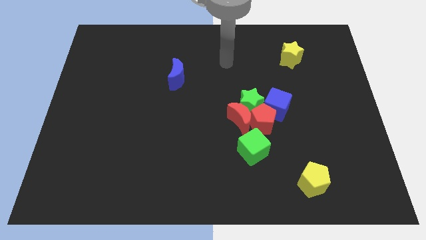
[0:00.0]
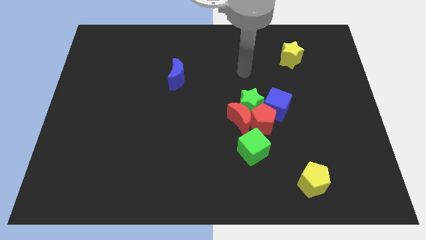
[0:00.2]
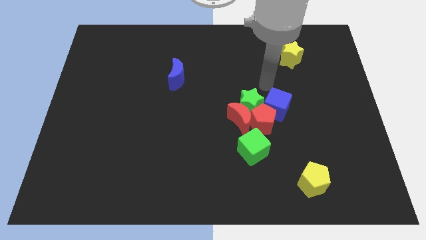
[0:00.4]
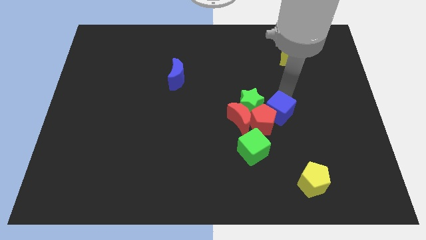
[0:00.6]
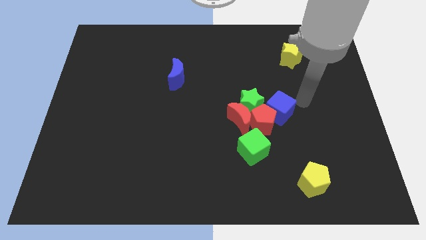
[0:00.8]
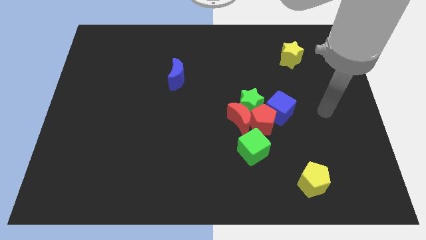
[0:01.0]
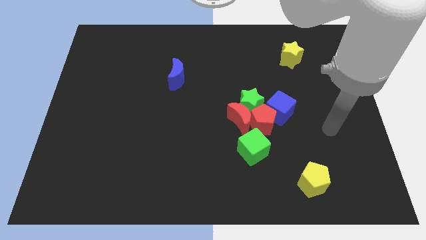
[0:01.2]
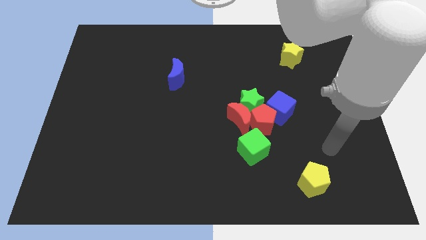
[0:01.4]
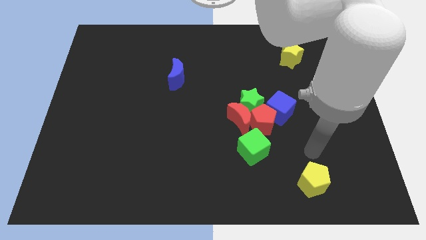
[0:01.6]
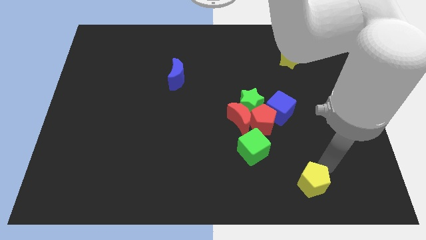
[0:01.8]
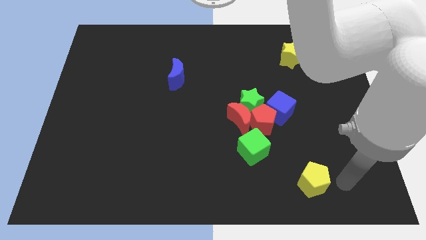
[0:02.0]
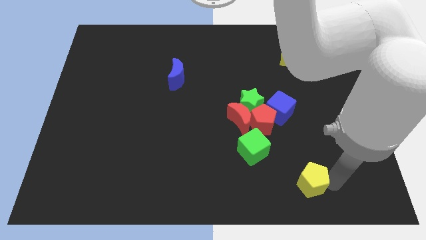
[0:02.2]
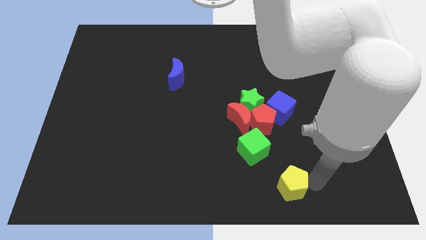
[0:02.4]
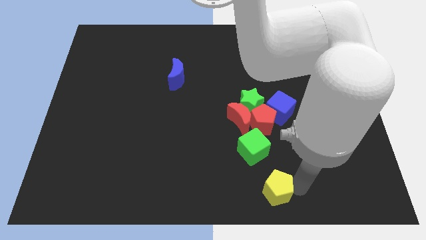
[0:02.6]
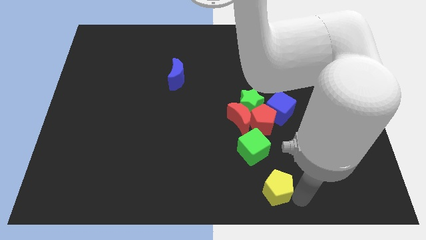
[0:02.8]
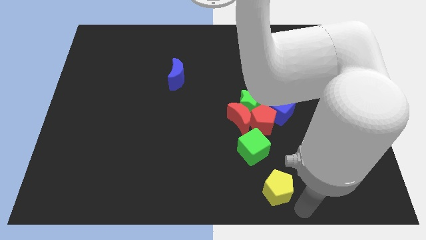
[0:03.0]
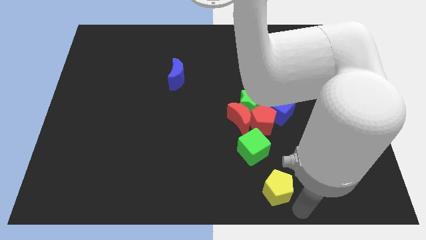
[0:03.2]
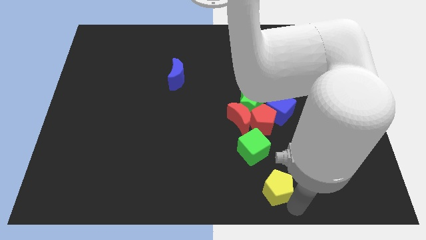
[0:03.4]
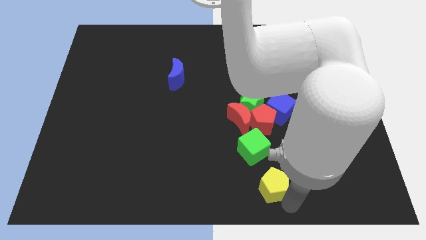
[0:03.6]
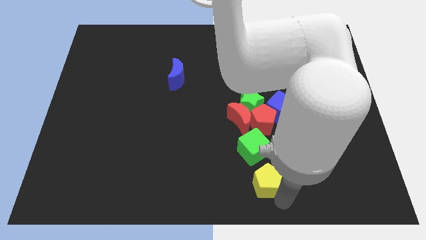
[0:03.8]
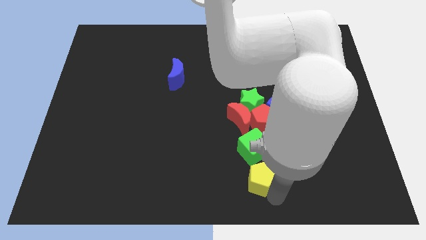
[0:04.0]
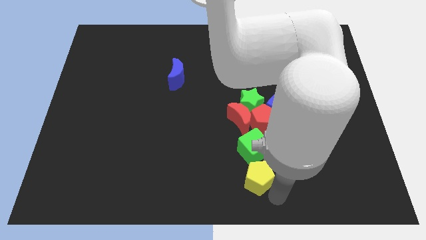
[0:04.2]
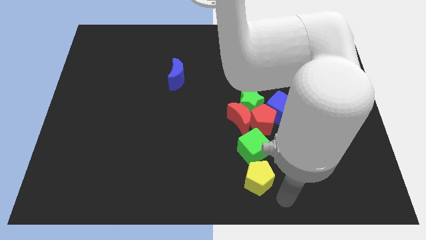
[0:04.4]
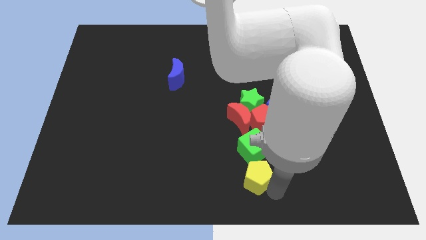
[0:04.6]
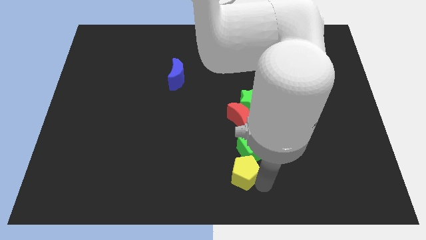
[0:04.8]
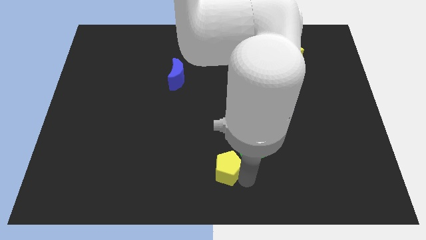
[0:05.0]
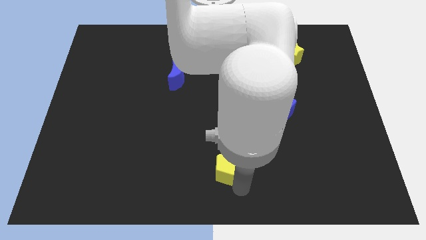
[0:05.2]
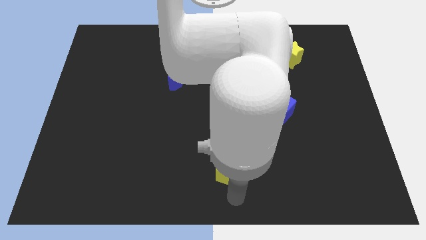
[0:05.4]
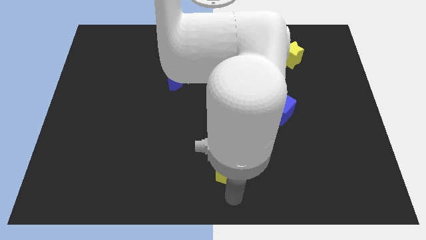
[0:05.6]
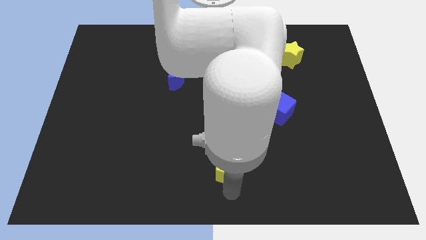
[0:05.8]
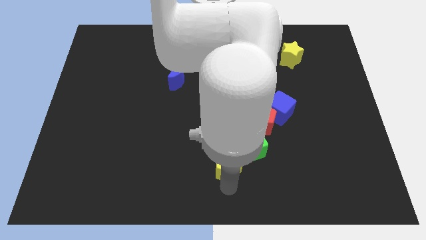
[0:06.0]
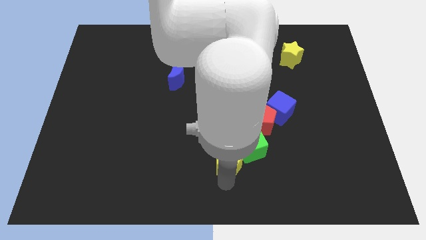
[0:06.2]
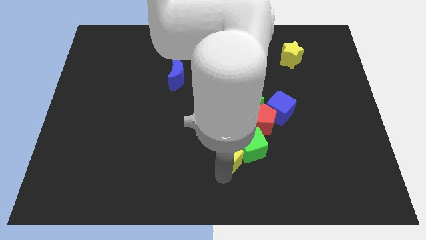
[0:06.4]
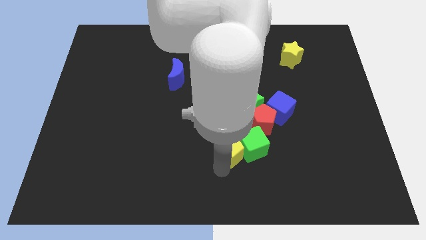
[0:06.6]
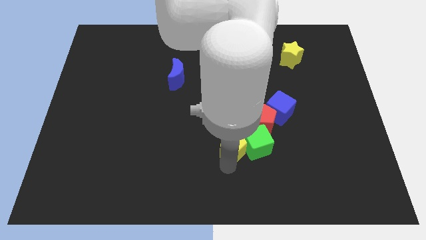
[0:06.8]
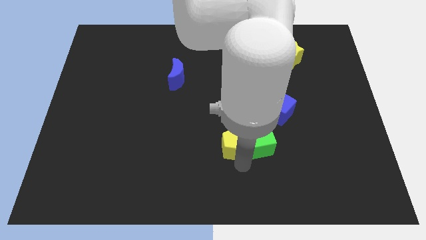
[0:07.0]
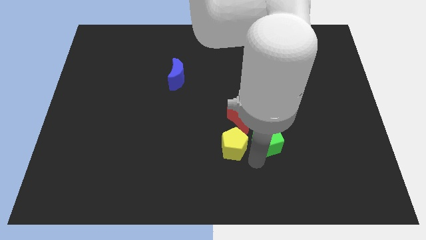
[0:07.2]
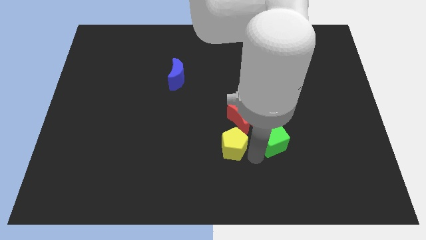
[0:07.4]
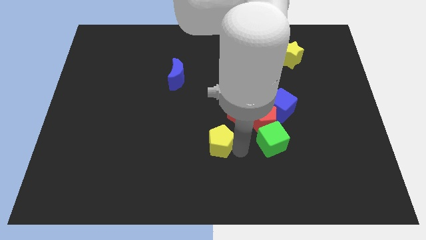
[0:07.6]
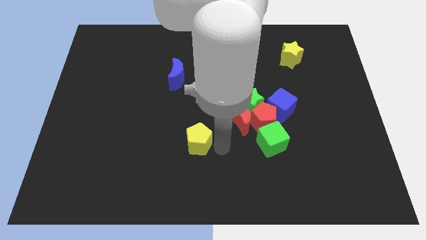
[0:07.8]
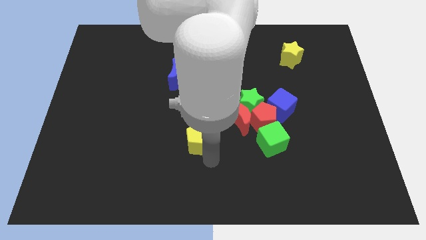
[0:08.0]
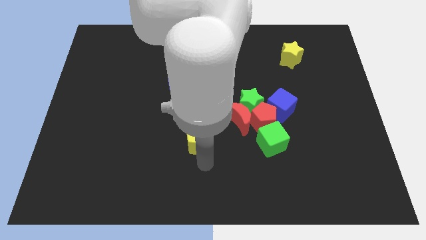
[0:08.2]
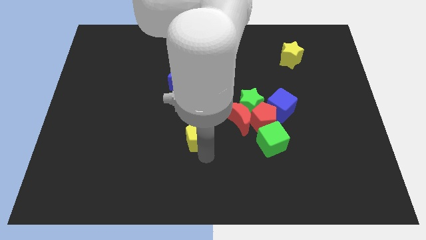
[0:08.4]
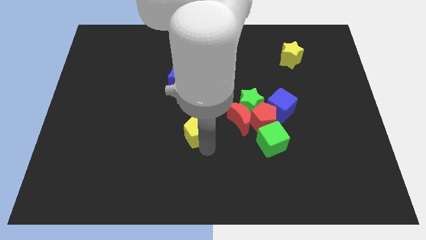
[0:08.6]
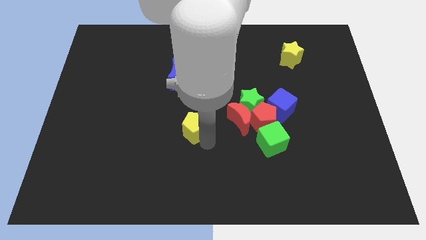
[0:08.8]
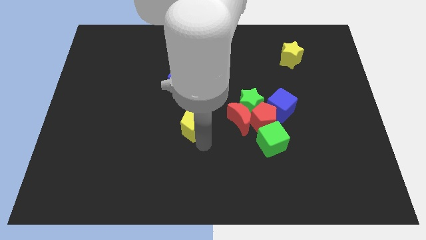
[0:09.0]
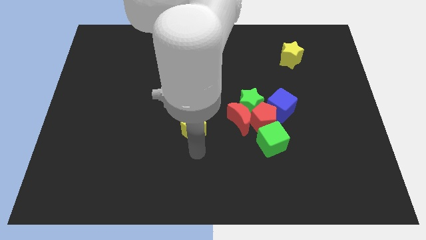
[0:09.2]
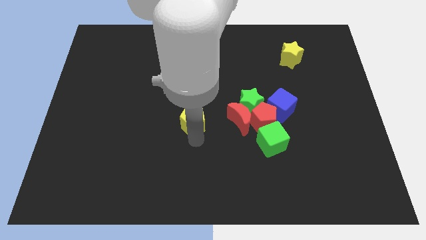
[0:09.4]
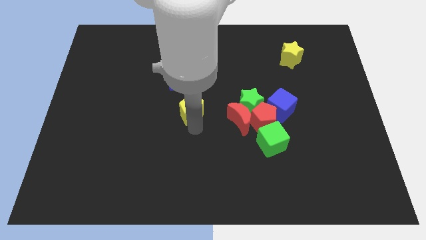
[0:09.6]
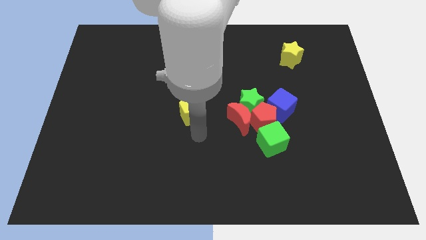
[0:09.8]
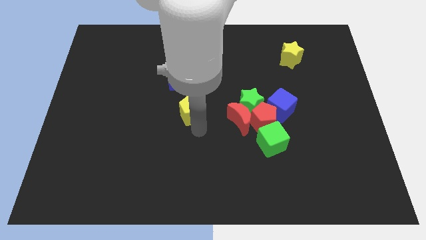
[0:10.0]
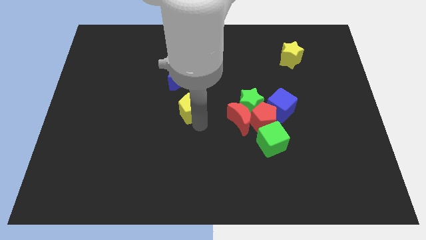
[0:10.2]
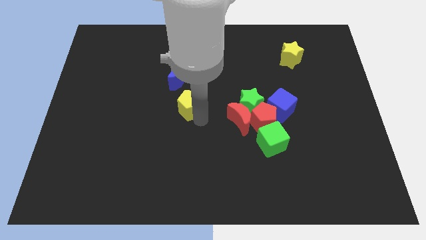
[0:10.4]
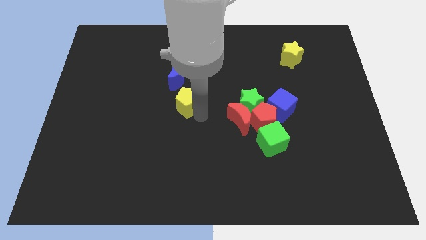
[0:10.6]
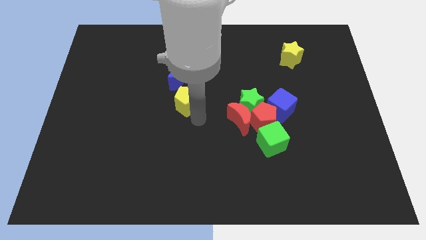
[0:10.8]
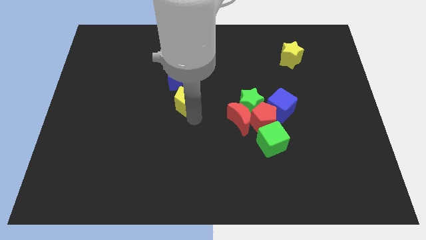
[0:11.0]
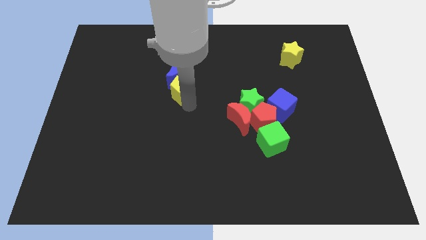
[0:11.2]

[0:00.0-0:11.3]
put the yellow pentagon next to the blue moon

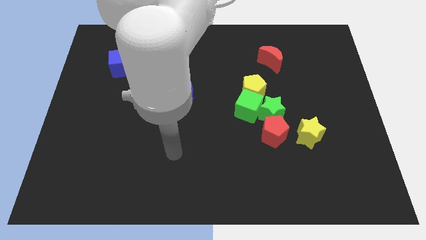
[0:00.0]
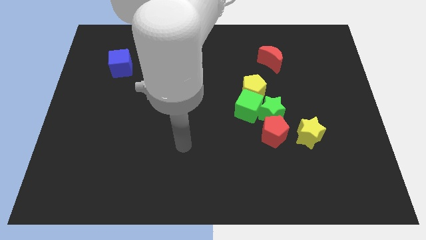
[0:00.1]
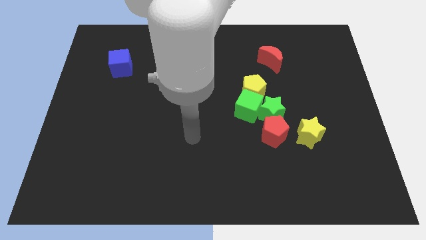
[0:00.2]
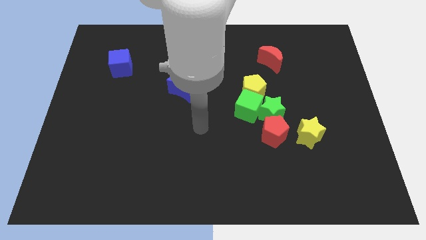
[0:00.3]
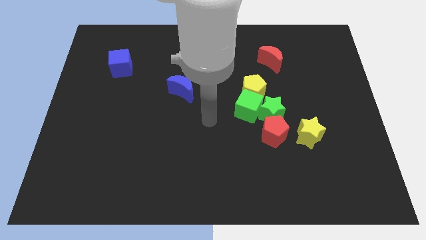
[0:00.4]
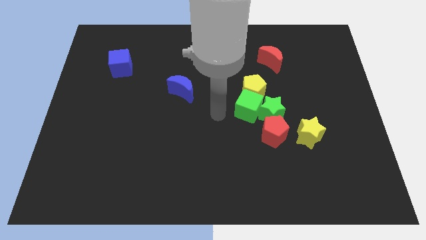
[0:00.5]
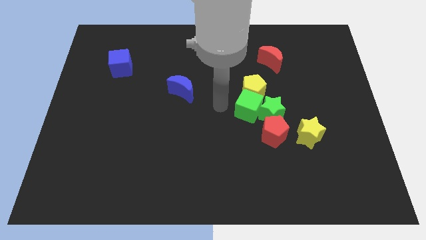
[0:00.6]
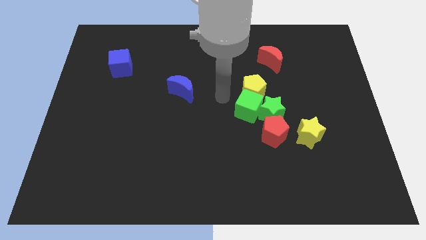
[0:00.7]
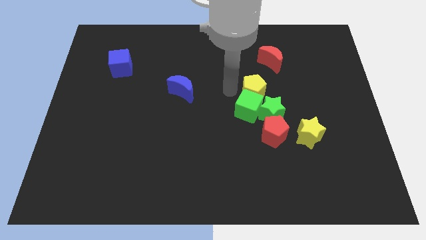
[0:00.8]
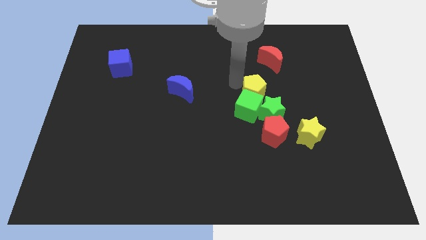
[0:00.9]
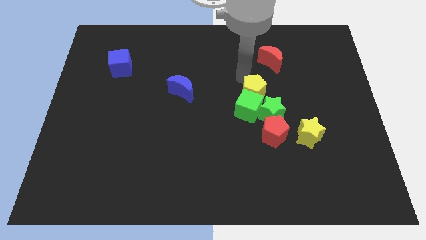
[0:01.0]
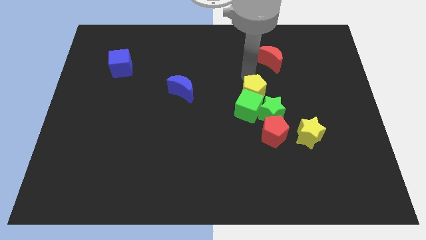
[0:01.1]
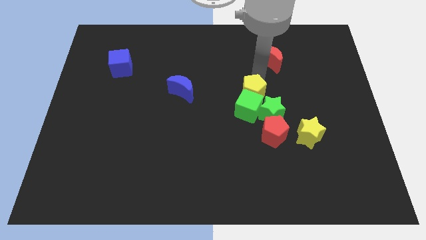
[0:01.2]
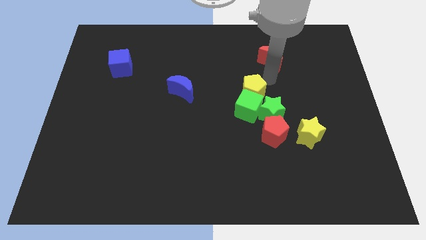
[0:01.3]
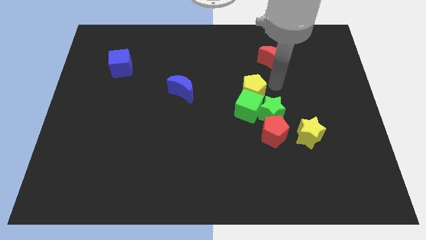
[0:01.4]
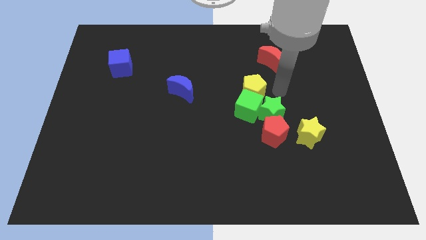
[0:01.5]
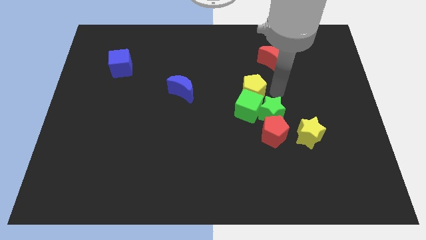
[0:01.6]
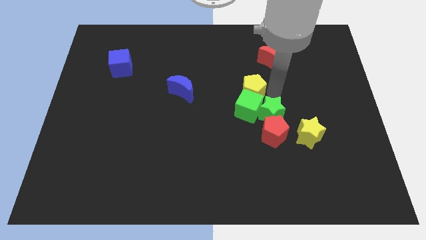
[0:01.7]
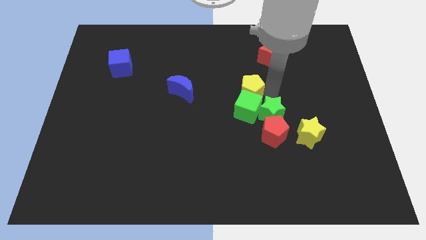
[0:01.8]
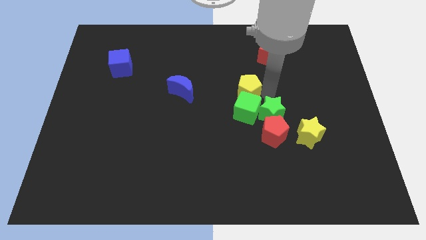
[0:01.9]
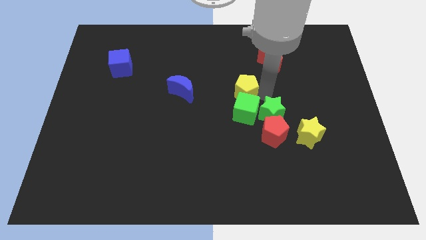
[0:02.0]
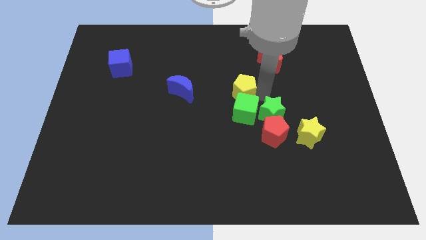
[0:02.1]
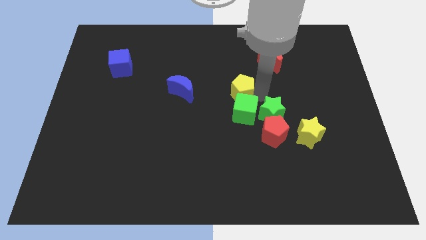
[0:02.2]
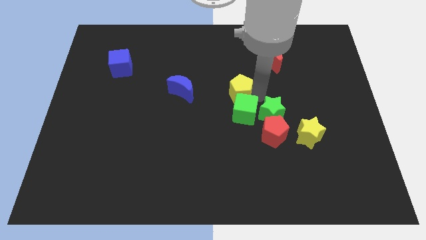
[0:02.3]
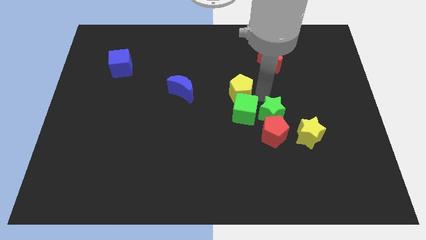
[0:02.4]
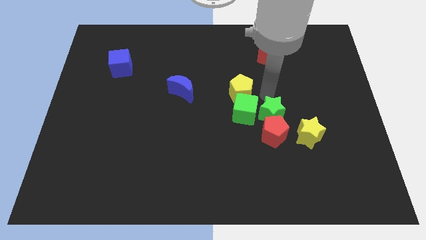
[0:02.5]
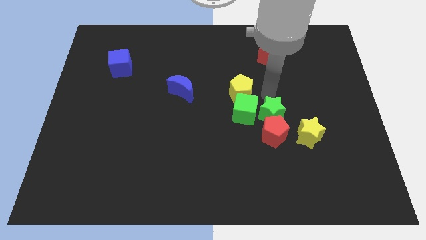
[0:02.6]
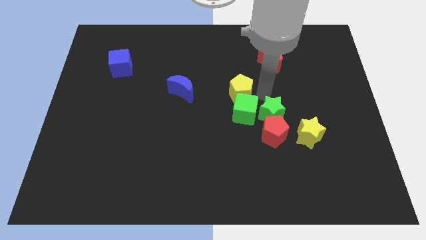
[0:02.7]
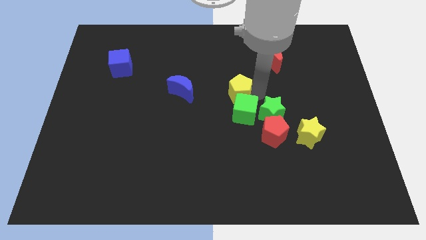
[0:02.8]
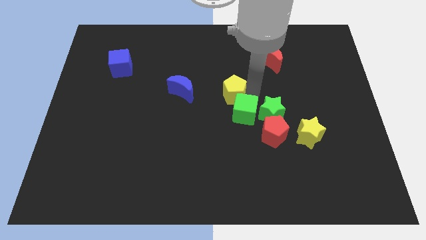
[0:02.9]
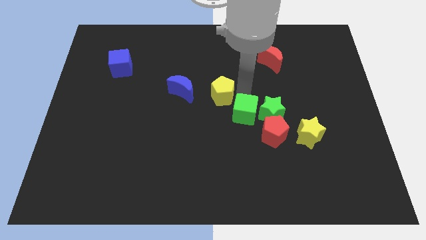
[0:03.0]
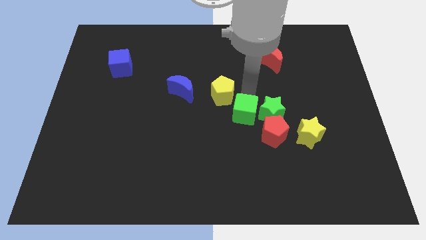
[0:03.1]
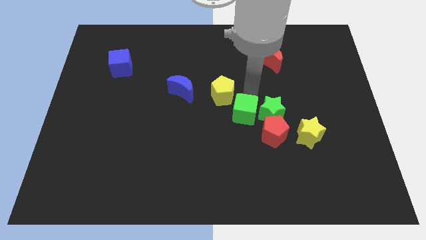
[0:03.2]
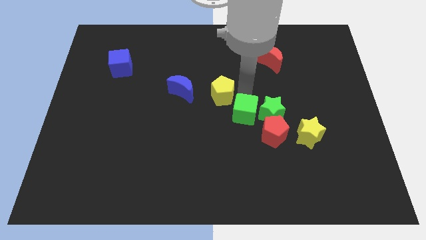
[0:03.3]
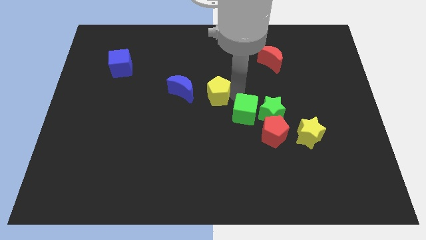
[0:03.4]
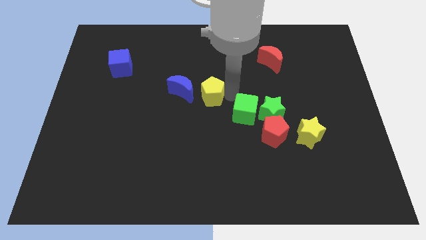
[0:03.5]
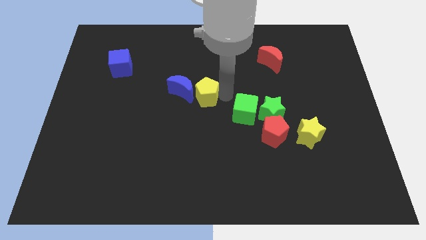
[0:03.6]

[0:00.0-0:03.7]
slide the yellow pentagon next to the blue moon
